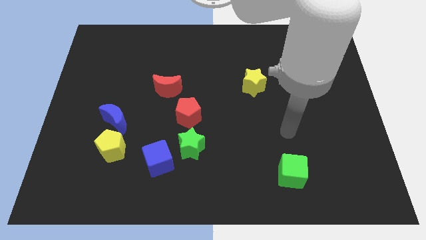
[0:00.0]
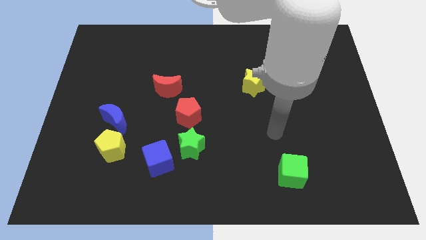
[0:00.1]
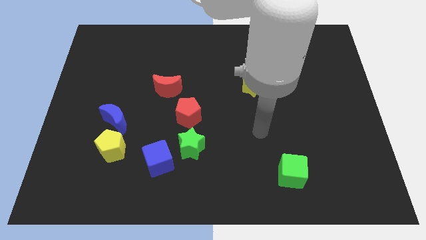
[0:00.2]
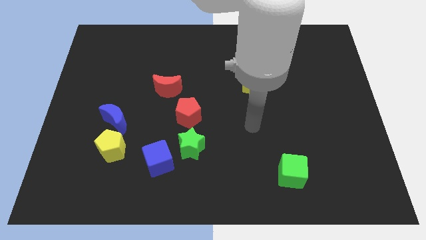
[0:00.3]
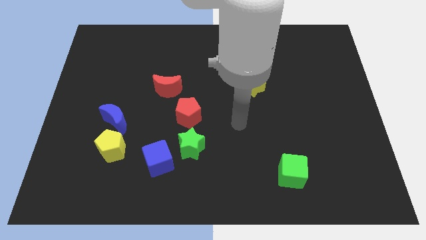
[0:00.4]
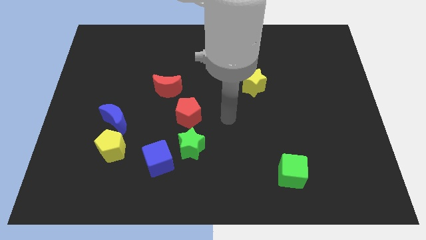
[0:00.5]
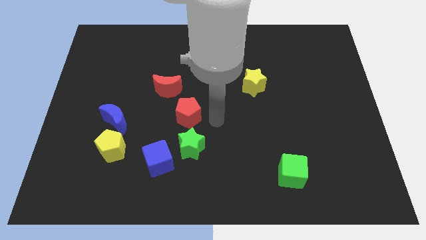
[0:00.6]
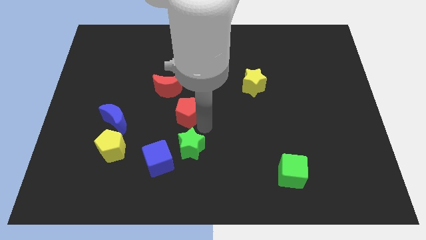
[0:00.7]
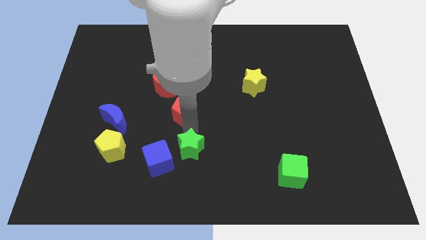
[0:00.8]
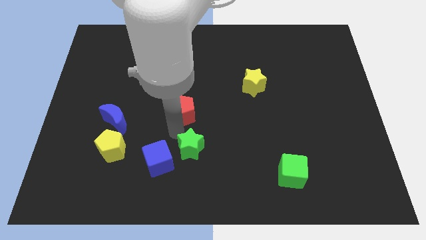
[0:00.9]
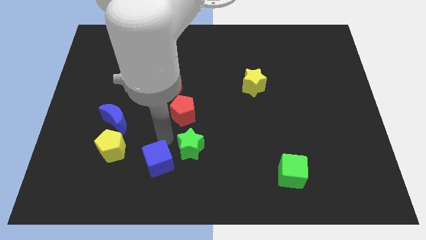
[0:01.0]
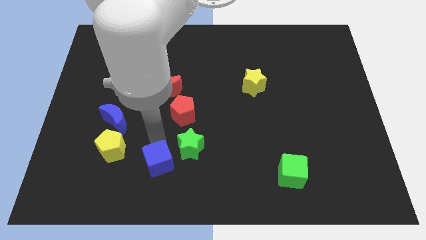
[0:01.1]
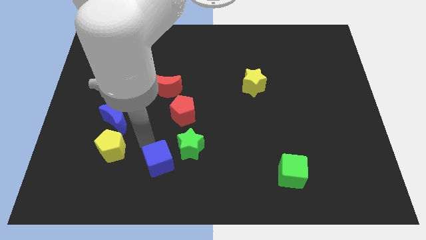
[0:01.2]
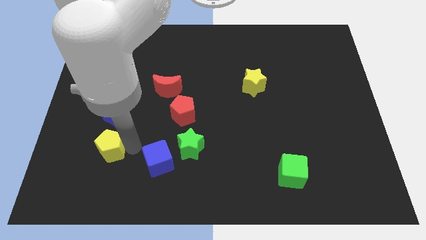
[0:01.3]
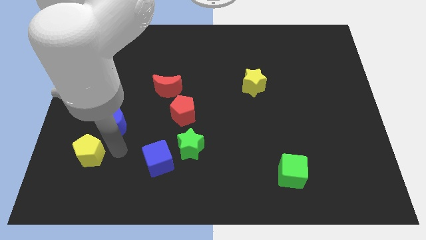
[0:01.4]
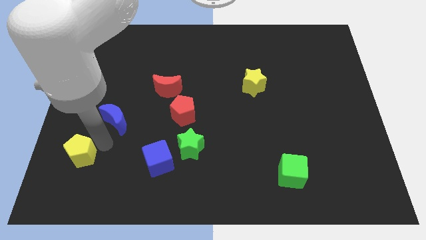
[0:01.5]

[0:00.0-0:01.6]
pull the blue moon apart from the yellow pentagon

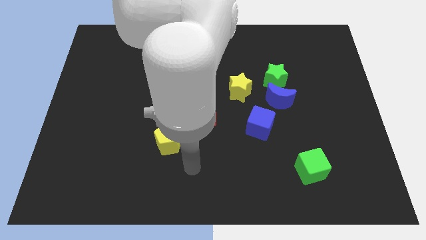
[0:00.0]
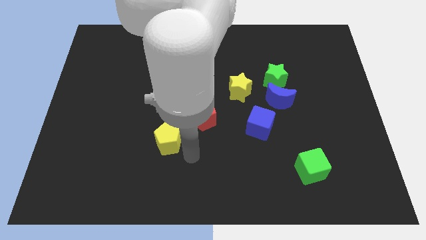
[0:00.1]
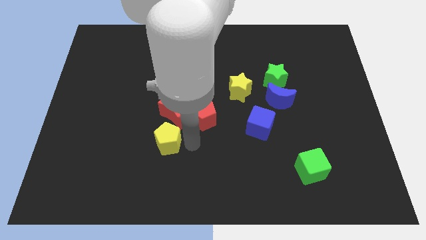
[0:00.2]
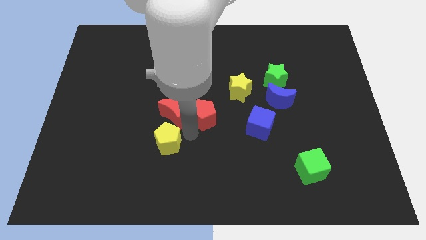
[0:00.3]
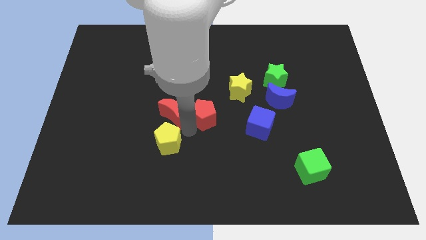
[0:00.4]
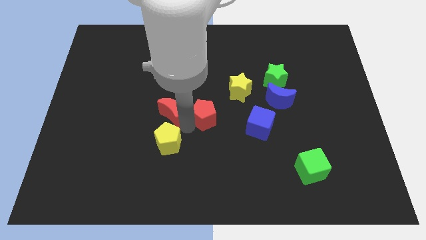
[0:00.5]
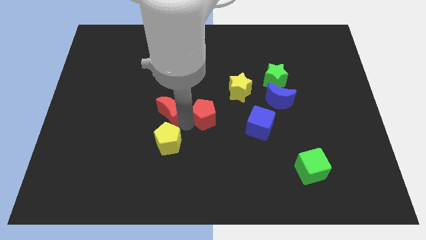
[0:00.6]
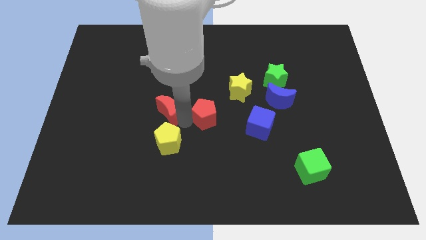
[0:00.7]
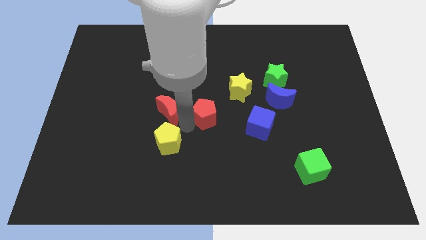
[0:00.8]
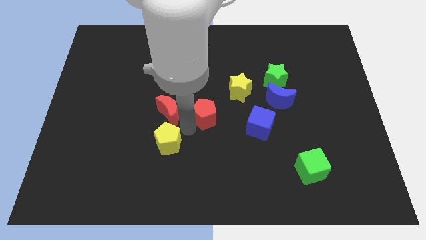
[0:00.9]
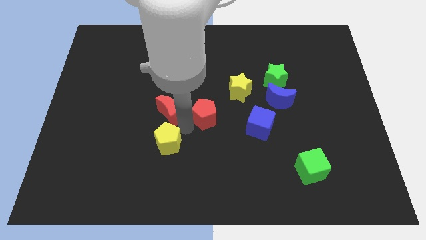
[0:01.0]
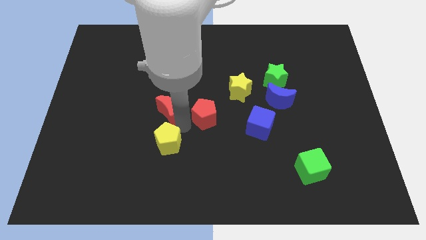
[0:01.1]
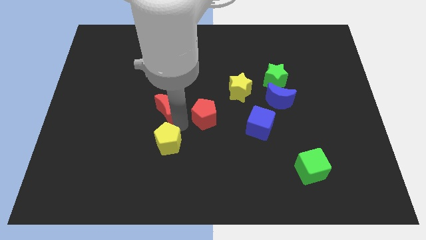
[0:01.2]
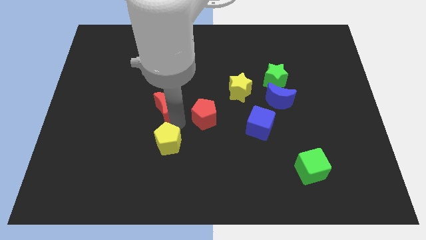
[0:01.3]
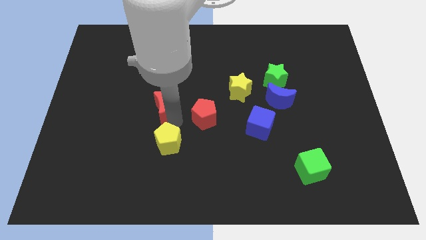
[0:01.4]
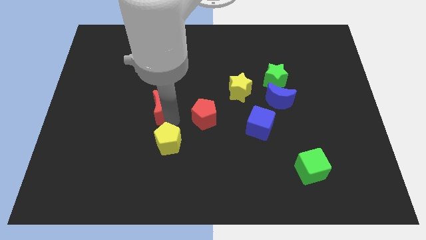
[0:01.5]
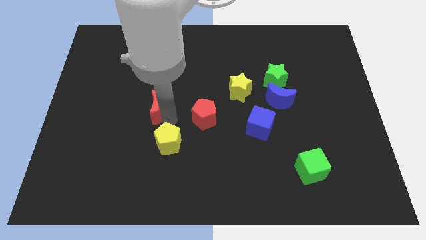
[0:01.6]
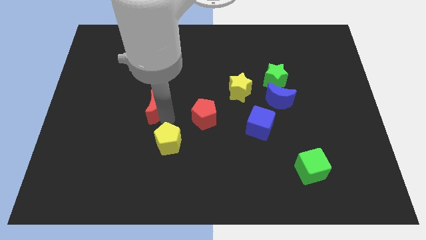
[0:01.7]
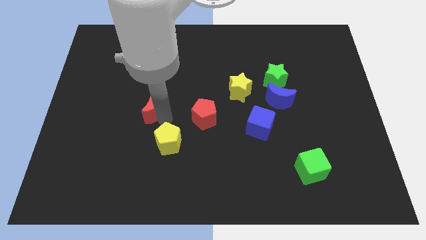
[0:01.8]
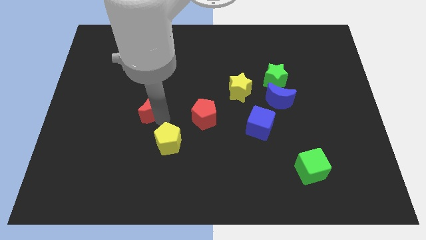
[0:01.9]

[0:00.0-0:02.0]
separate the red moon from the red pentagon and yellow pentagon

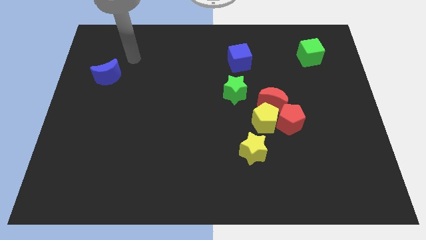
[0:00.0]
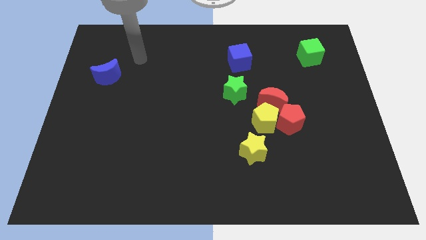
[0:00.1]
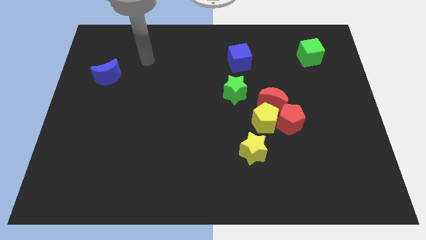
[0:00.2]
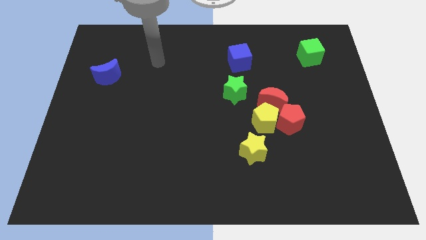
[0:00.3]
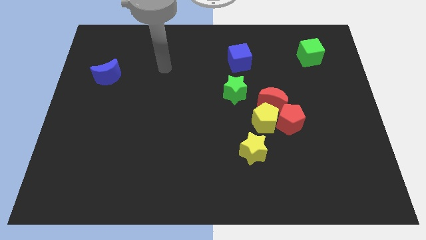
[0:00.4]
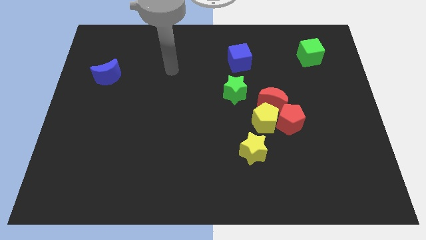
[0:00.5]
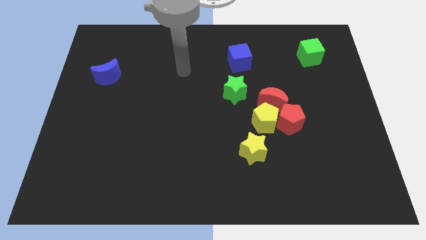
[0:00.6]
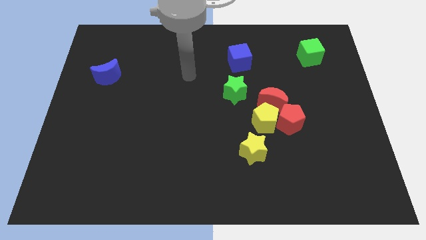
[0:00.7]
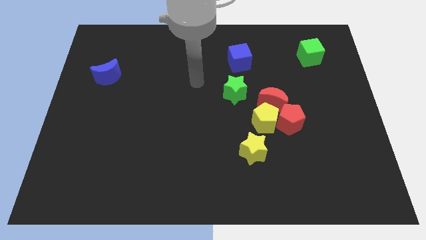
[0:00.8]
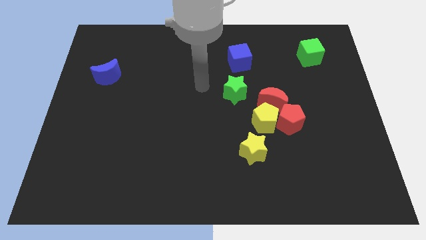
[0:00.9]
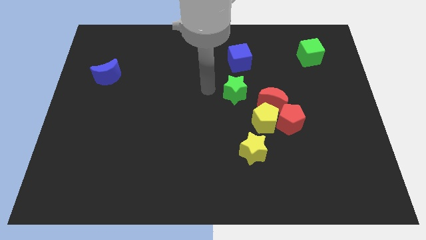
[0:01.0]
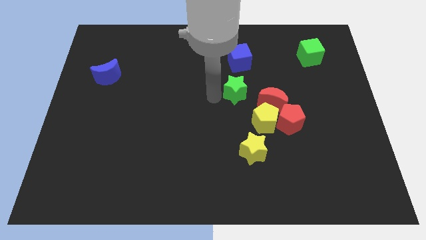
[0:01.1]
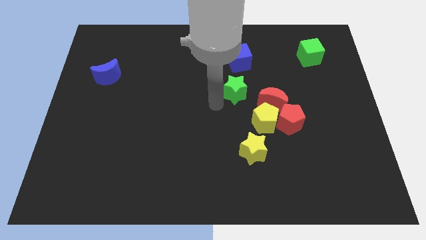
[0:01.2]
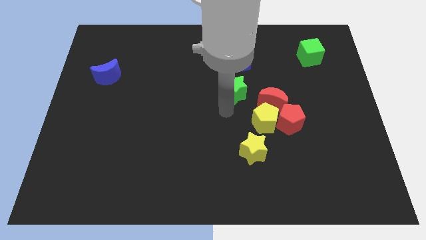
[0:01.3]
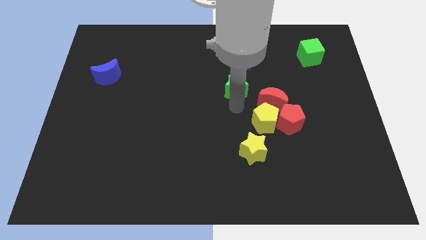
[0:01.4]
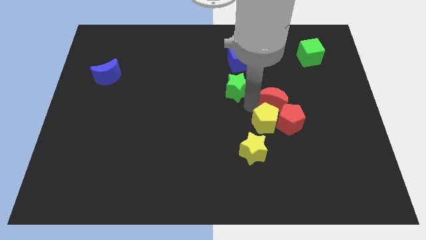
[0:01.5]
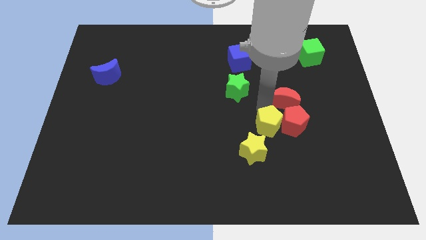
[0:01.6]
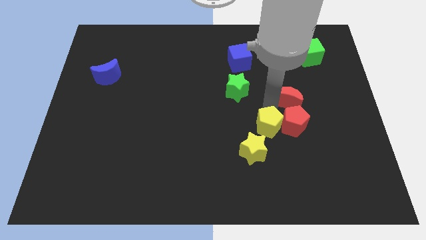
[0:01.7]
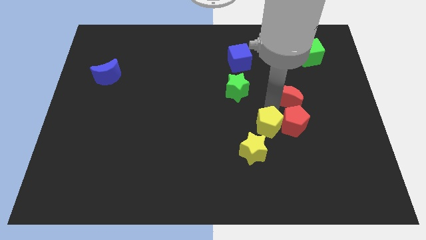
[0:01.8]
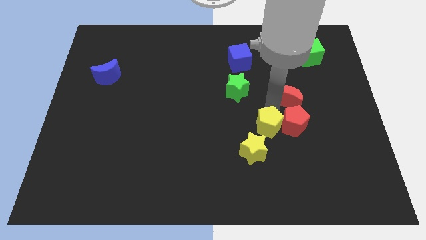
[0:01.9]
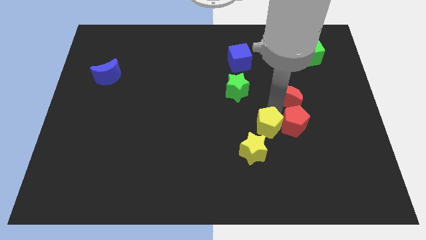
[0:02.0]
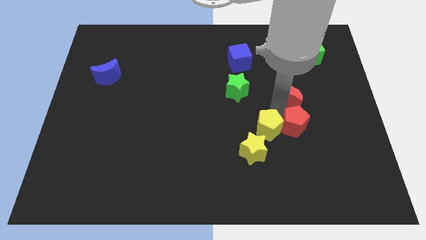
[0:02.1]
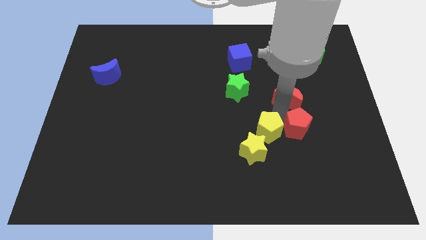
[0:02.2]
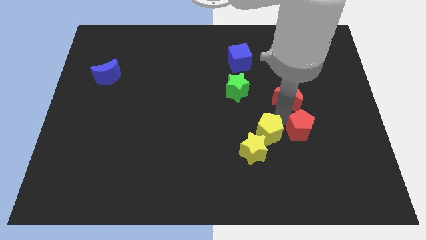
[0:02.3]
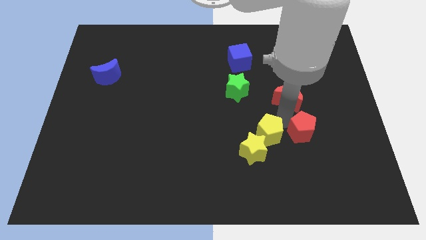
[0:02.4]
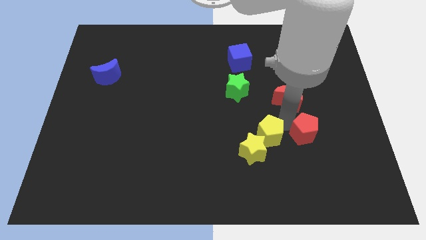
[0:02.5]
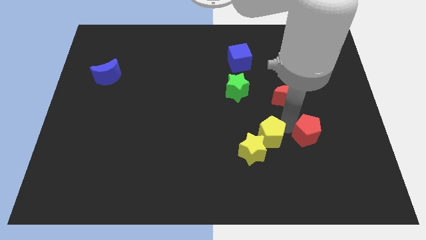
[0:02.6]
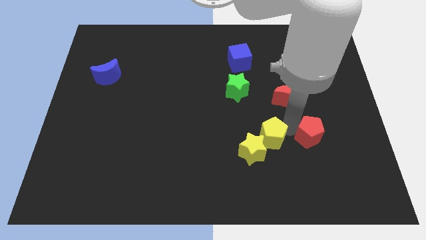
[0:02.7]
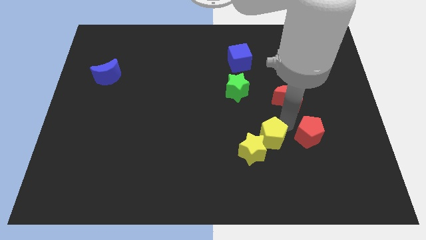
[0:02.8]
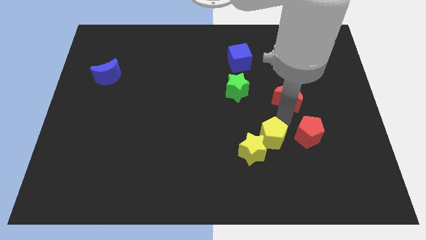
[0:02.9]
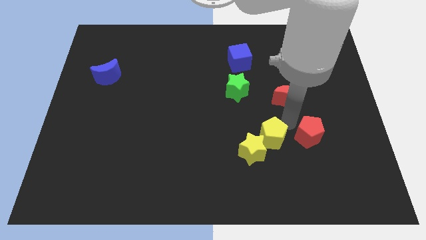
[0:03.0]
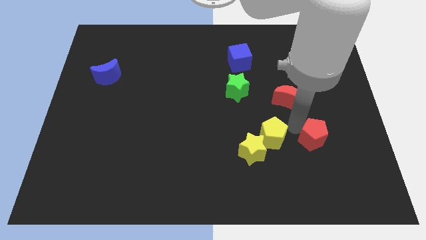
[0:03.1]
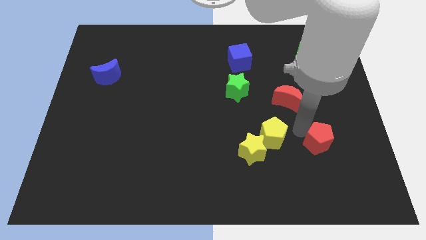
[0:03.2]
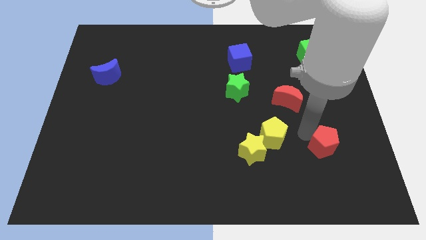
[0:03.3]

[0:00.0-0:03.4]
move the red pentagon away from the yellow pentagon and red moon

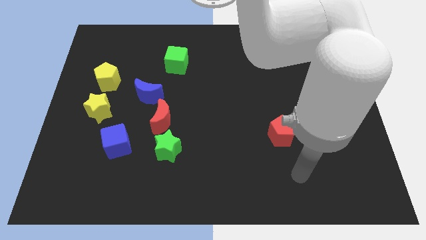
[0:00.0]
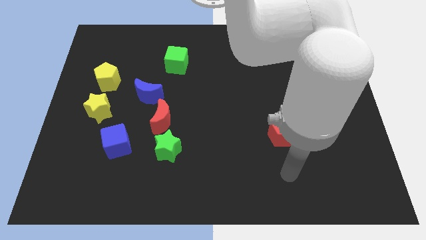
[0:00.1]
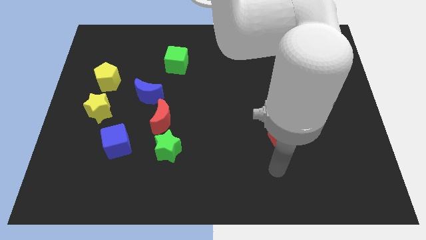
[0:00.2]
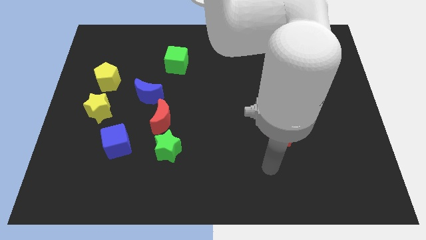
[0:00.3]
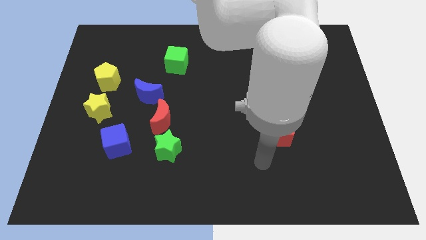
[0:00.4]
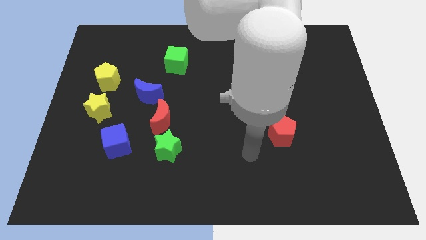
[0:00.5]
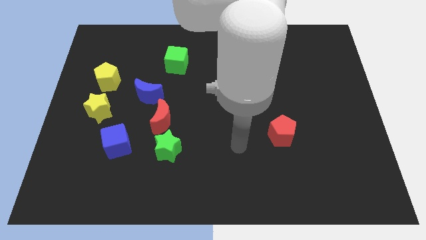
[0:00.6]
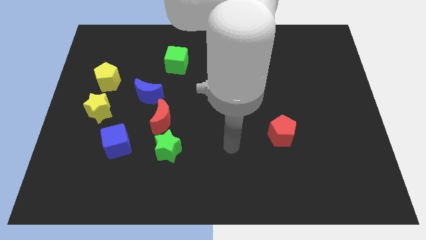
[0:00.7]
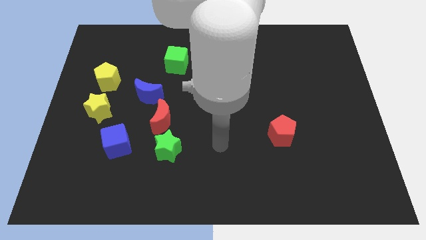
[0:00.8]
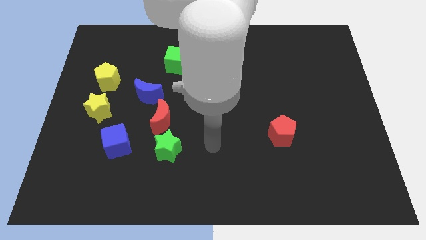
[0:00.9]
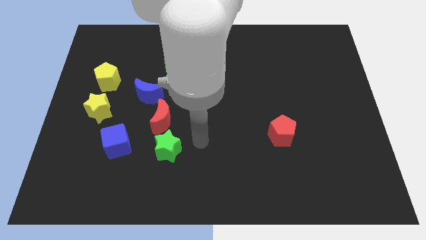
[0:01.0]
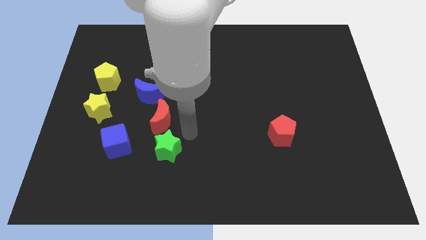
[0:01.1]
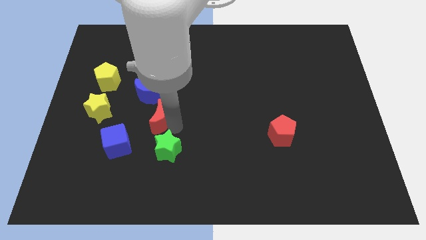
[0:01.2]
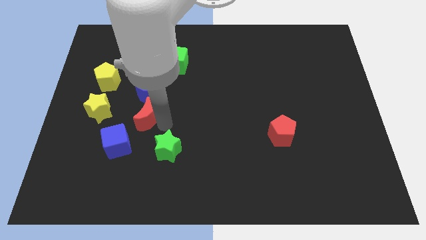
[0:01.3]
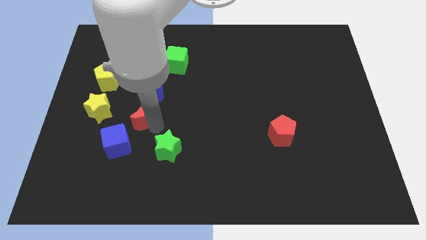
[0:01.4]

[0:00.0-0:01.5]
pull the green star apart from the red moon

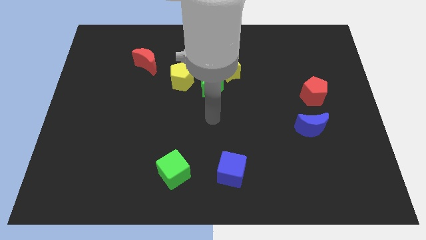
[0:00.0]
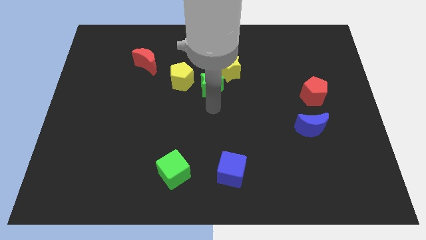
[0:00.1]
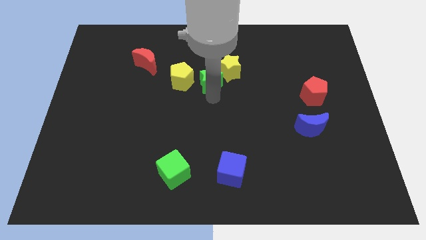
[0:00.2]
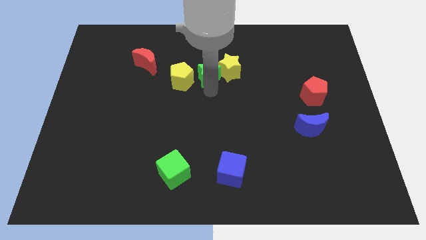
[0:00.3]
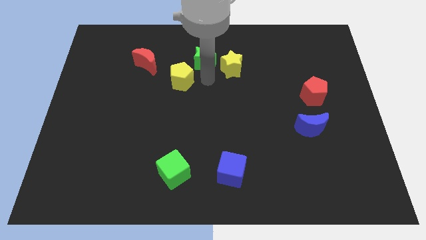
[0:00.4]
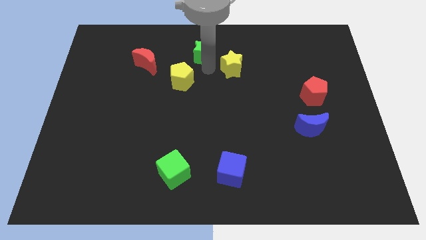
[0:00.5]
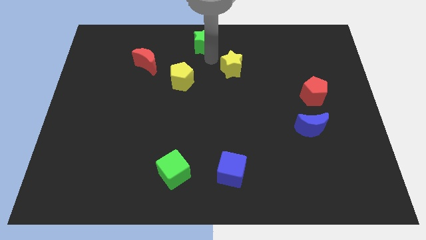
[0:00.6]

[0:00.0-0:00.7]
separate the yellow star from the green star

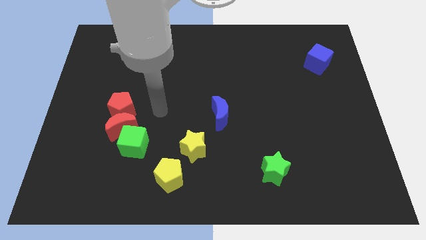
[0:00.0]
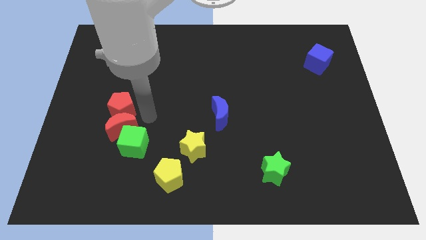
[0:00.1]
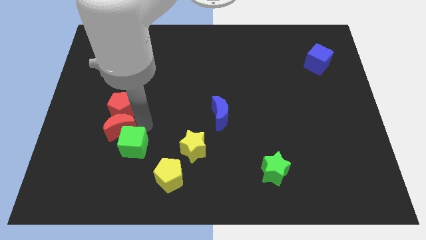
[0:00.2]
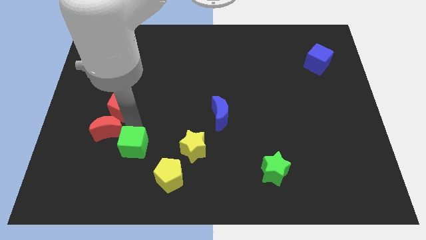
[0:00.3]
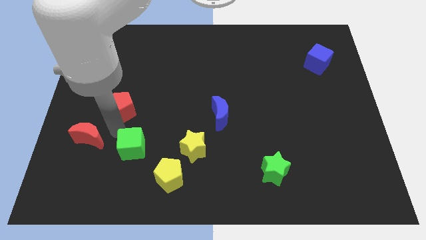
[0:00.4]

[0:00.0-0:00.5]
move the green cube away from the red moon
